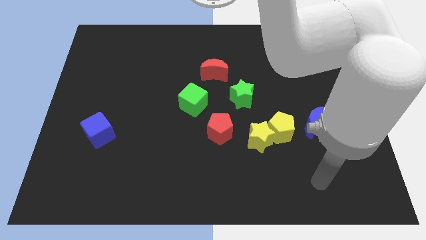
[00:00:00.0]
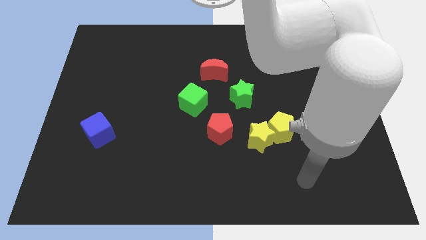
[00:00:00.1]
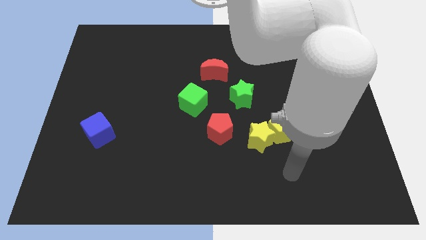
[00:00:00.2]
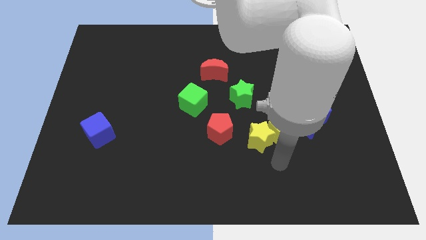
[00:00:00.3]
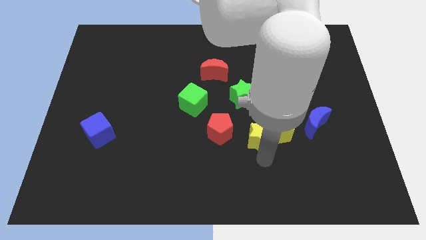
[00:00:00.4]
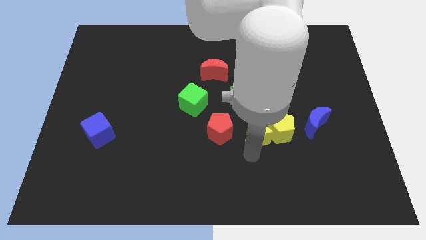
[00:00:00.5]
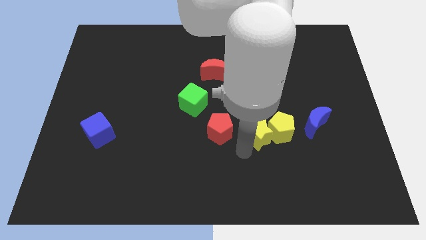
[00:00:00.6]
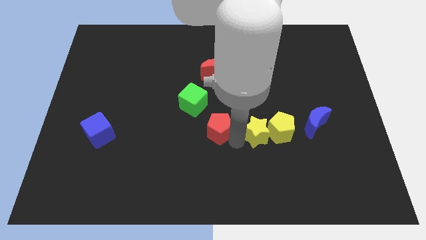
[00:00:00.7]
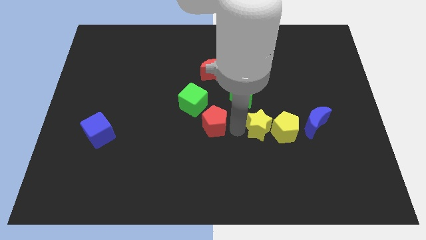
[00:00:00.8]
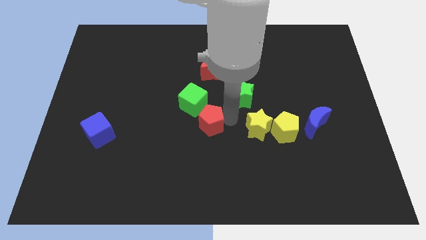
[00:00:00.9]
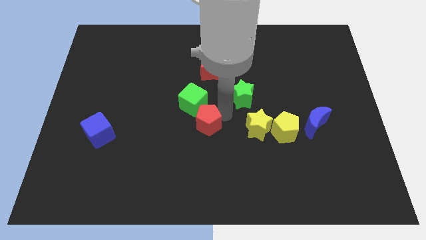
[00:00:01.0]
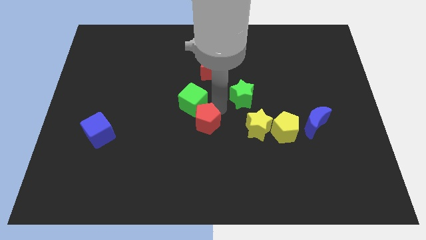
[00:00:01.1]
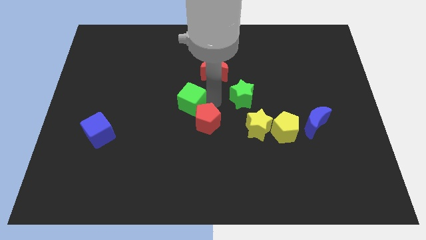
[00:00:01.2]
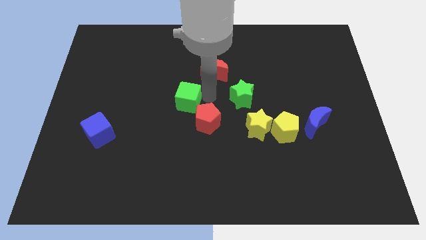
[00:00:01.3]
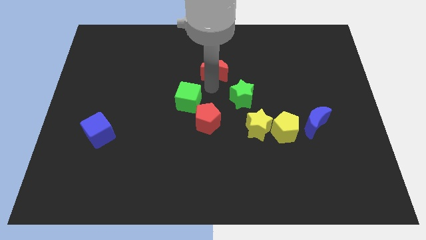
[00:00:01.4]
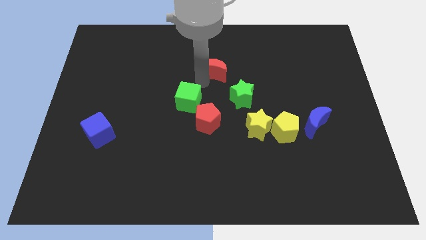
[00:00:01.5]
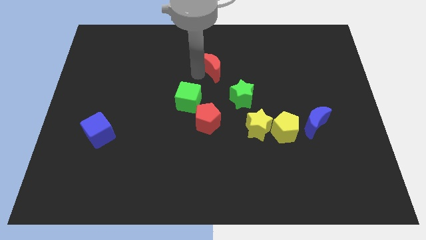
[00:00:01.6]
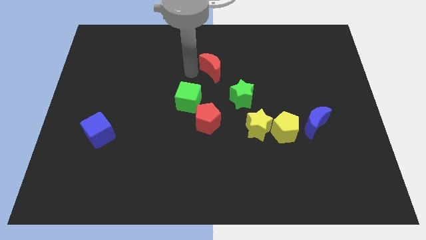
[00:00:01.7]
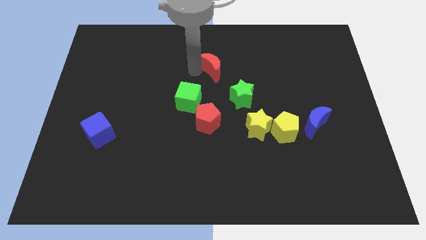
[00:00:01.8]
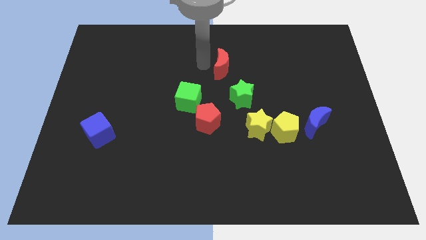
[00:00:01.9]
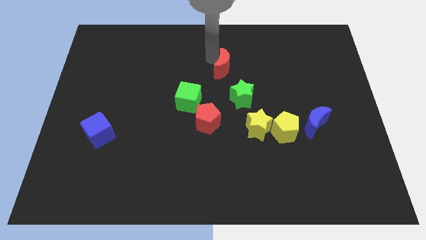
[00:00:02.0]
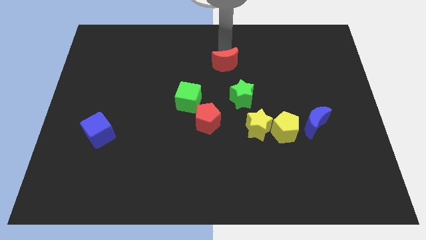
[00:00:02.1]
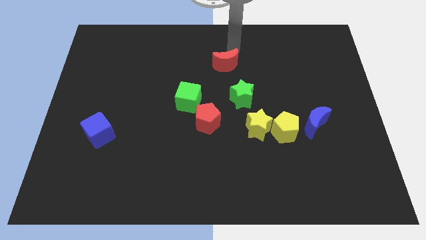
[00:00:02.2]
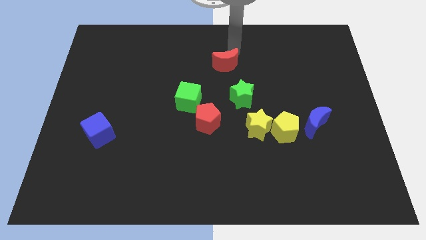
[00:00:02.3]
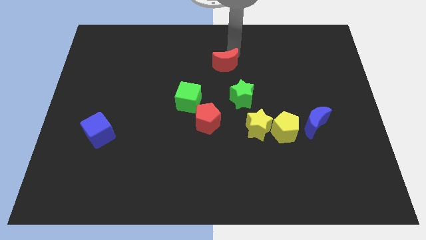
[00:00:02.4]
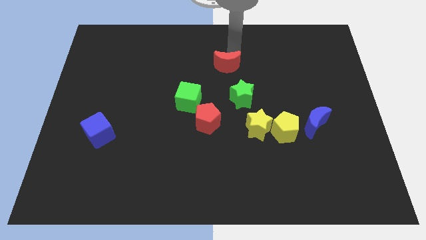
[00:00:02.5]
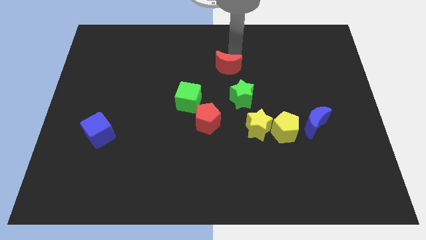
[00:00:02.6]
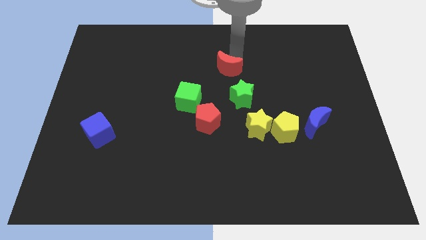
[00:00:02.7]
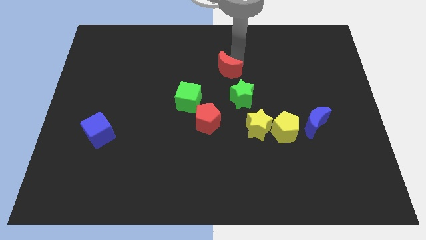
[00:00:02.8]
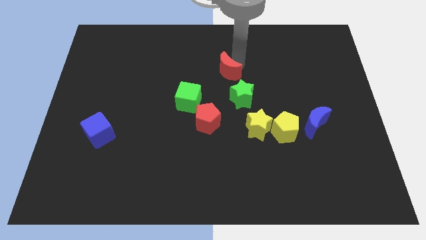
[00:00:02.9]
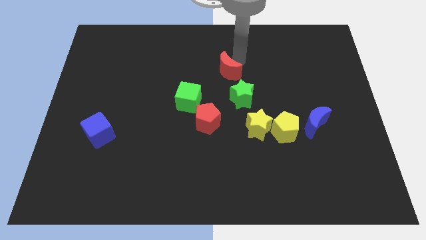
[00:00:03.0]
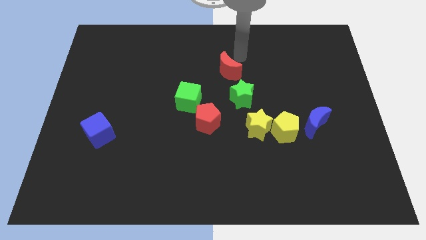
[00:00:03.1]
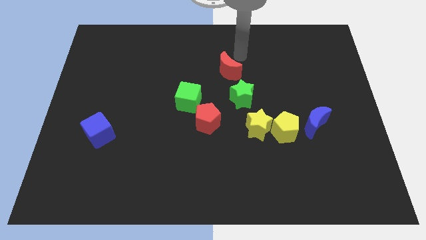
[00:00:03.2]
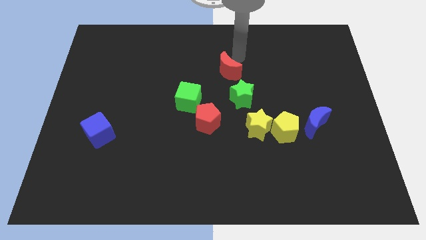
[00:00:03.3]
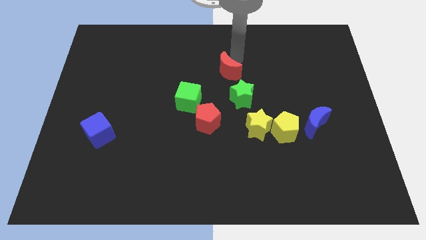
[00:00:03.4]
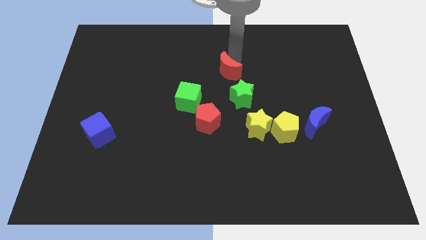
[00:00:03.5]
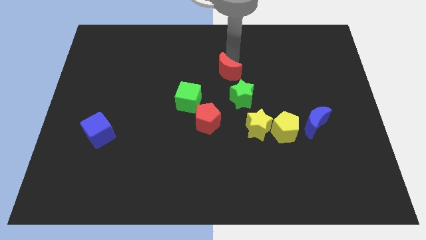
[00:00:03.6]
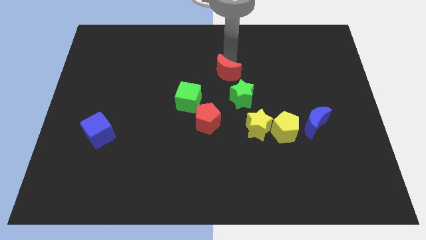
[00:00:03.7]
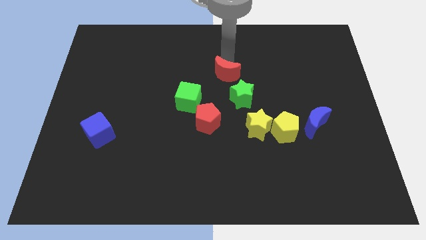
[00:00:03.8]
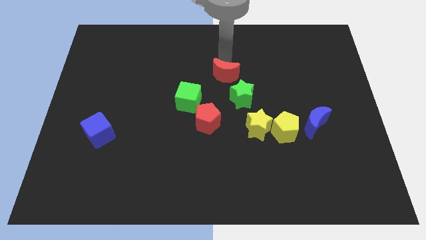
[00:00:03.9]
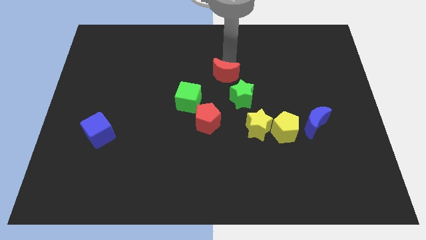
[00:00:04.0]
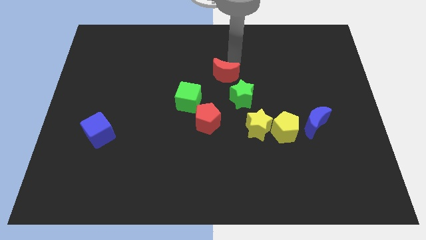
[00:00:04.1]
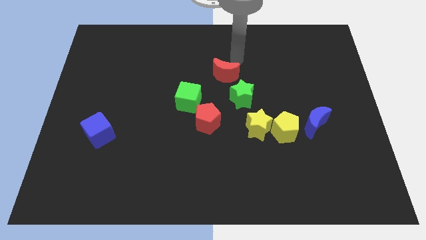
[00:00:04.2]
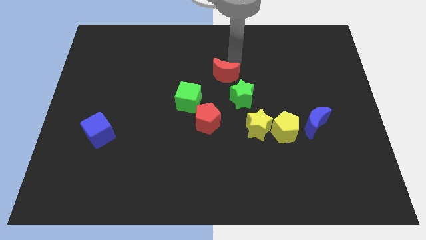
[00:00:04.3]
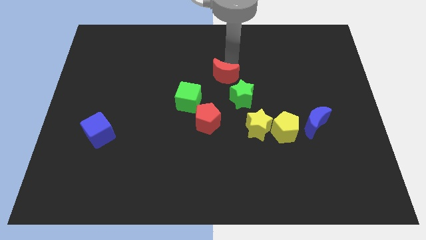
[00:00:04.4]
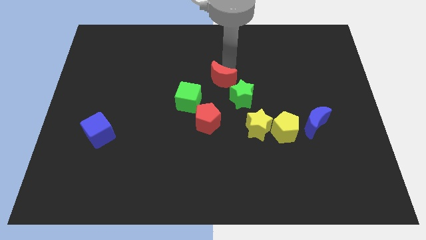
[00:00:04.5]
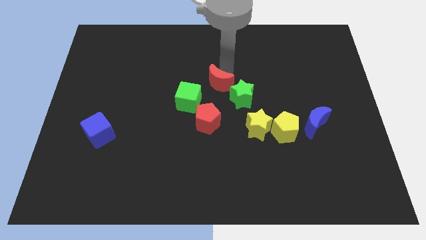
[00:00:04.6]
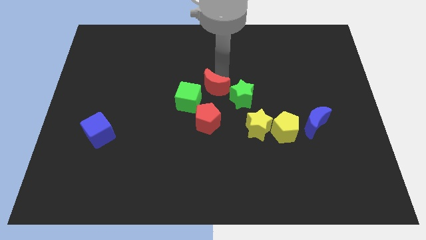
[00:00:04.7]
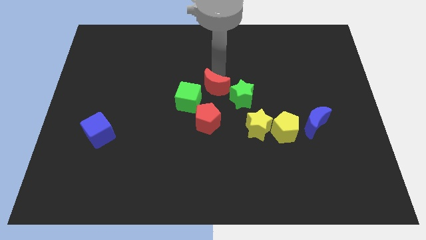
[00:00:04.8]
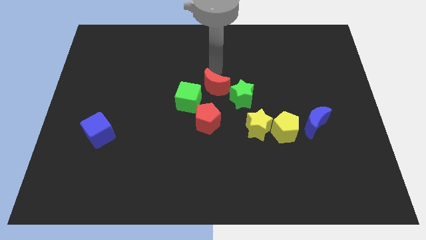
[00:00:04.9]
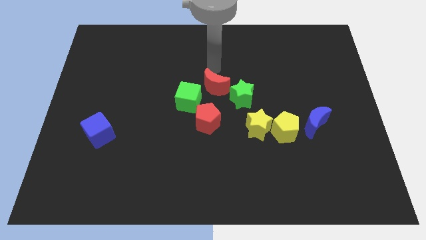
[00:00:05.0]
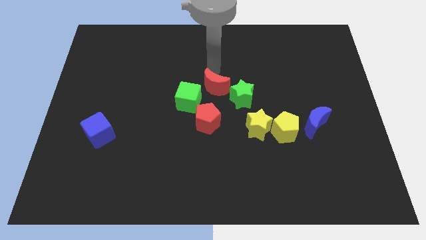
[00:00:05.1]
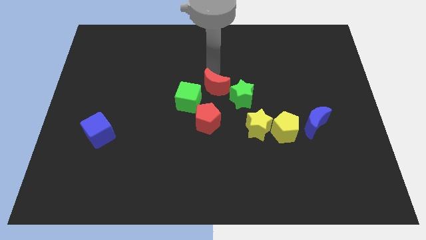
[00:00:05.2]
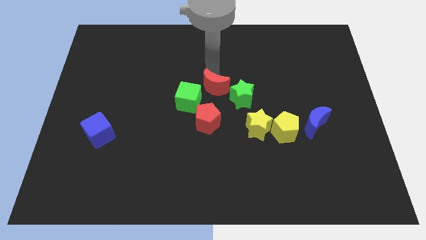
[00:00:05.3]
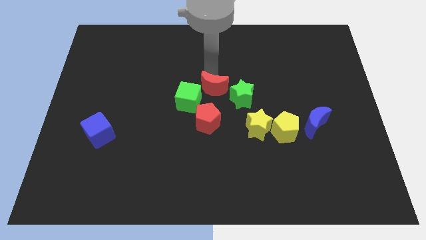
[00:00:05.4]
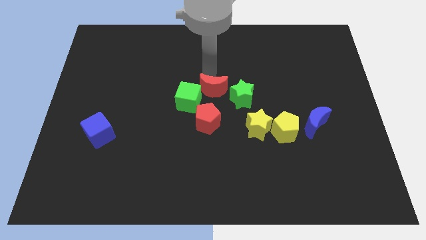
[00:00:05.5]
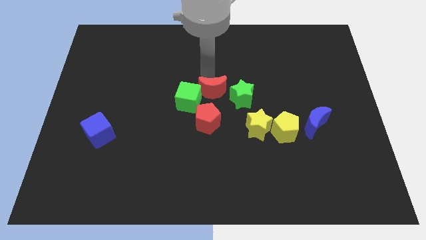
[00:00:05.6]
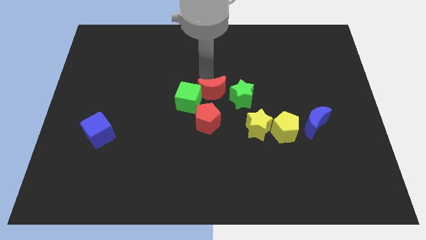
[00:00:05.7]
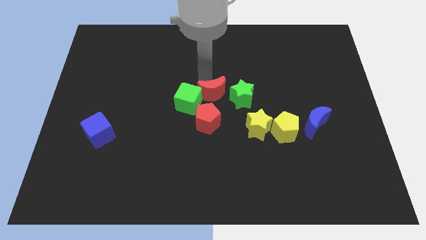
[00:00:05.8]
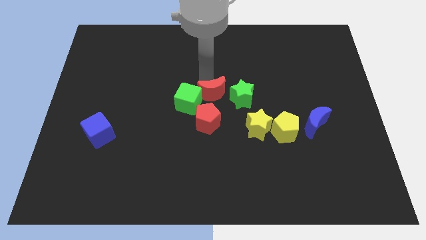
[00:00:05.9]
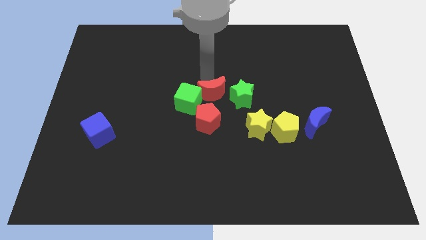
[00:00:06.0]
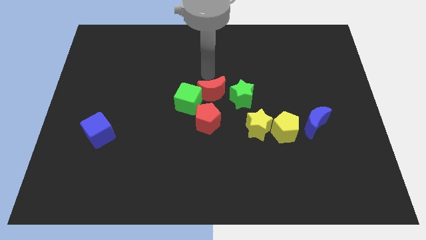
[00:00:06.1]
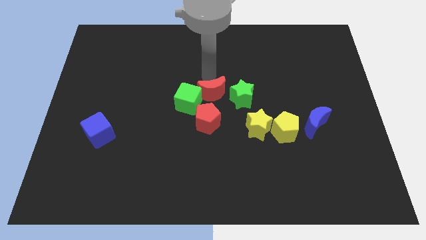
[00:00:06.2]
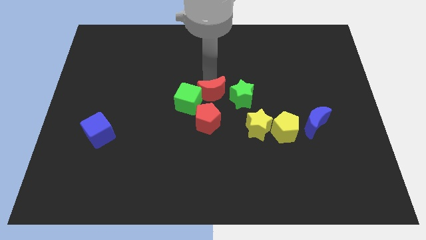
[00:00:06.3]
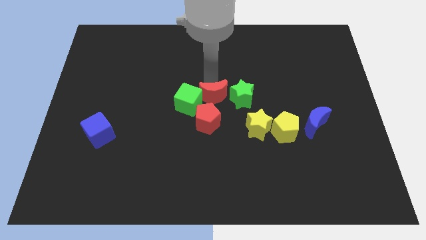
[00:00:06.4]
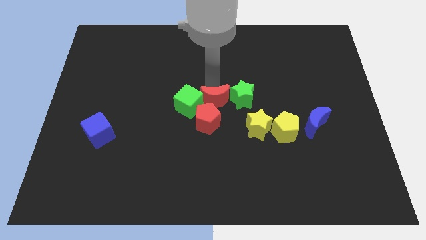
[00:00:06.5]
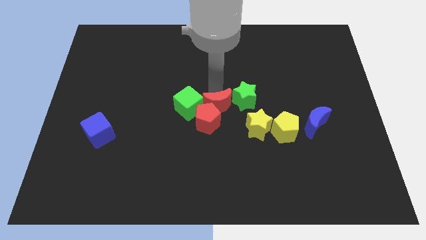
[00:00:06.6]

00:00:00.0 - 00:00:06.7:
push the red moon towards the red pentagon
